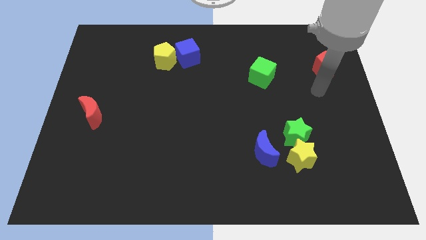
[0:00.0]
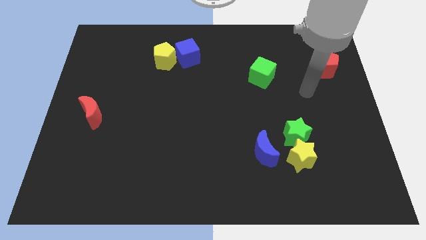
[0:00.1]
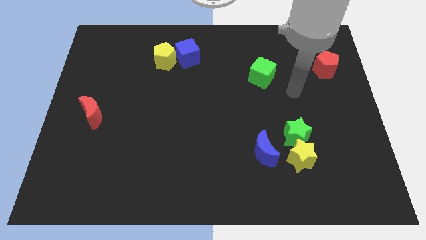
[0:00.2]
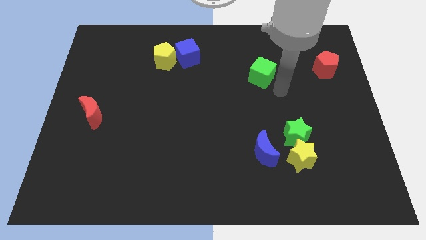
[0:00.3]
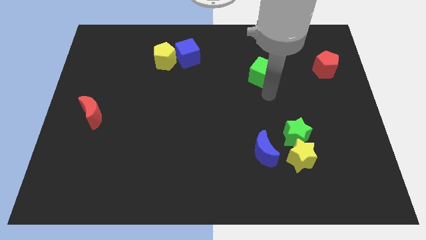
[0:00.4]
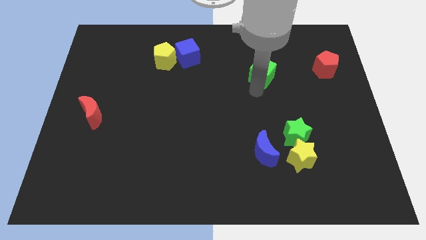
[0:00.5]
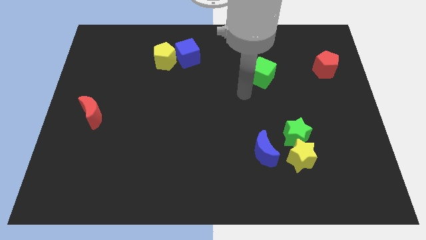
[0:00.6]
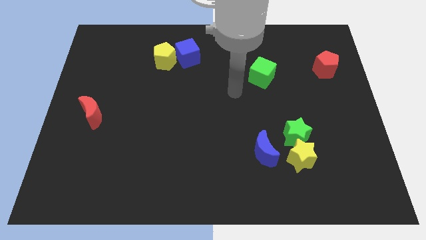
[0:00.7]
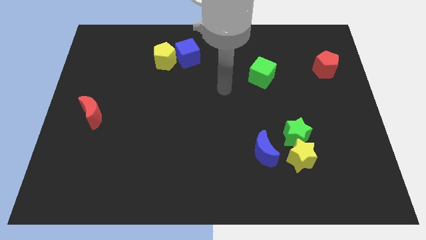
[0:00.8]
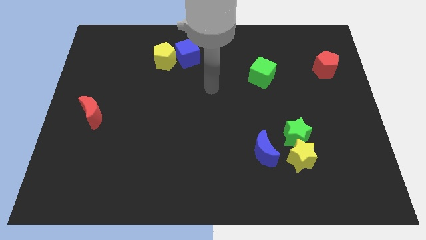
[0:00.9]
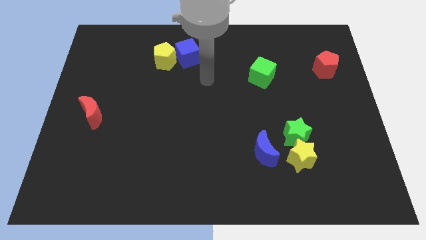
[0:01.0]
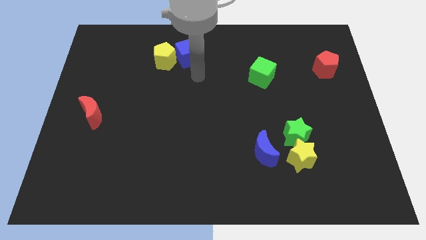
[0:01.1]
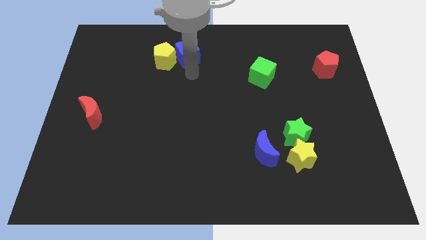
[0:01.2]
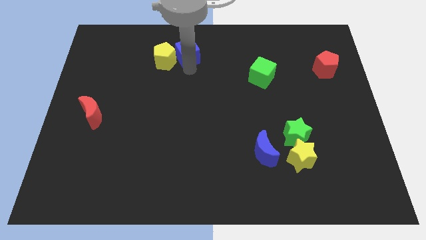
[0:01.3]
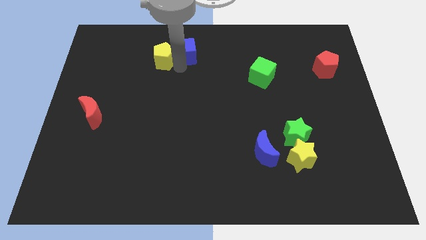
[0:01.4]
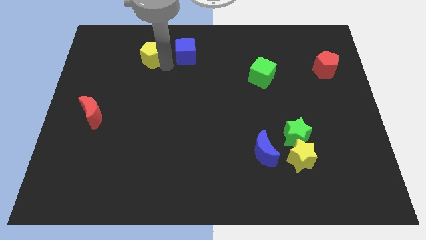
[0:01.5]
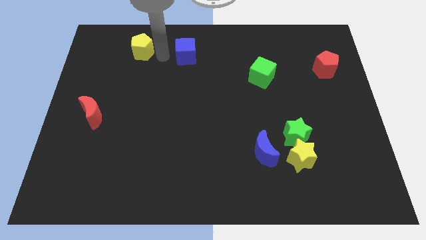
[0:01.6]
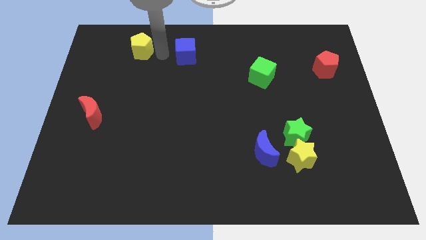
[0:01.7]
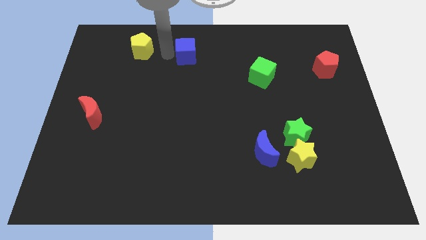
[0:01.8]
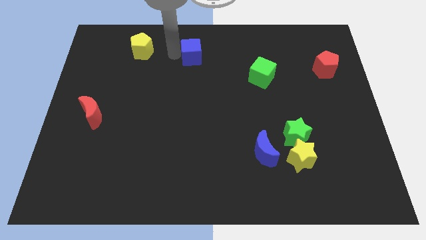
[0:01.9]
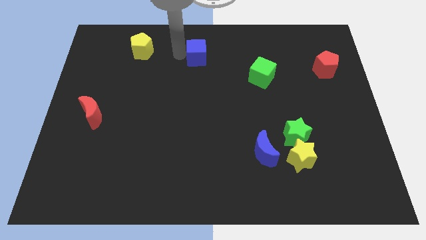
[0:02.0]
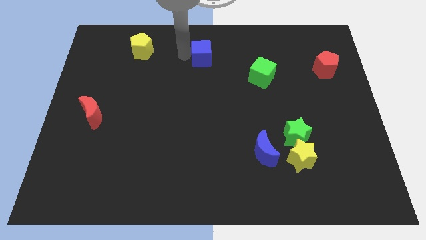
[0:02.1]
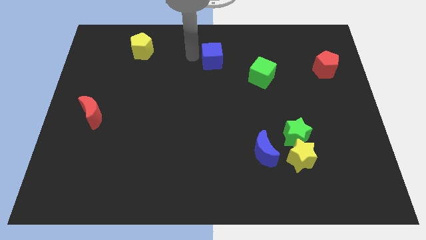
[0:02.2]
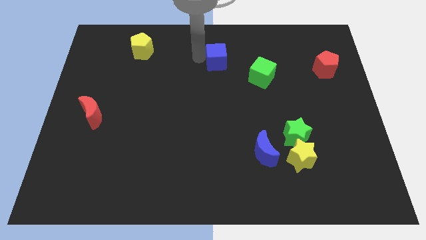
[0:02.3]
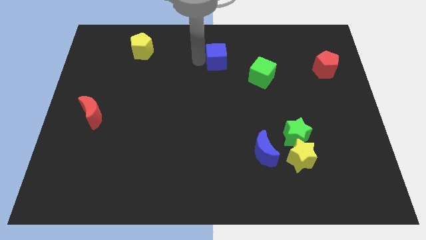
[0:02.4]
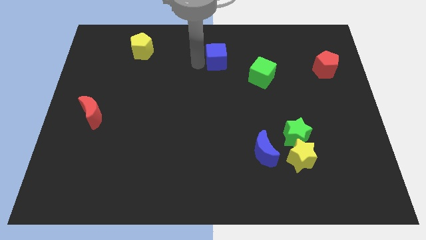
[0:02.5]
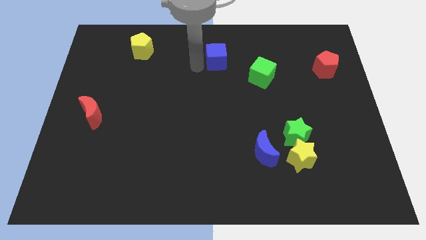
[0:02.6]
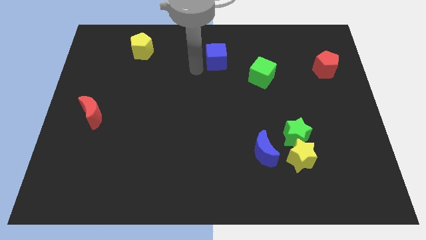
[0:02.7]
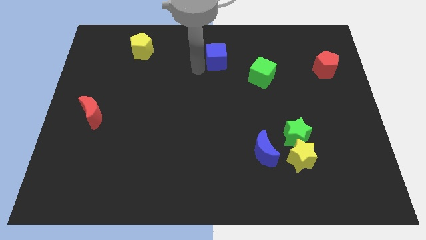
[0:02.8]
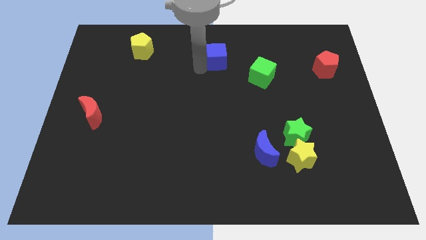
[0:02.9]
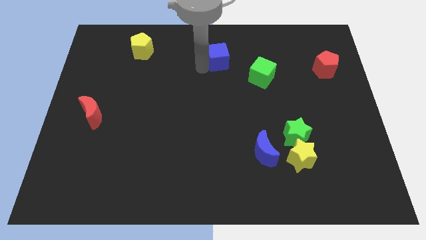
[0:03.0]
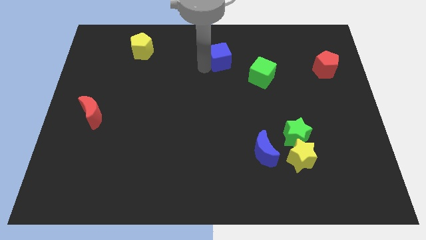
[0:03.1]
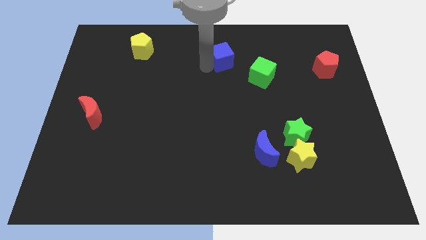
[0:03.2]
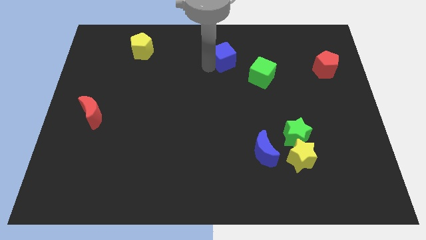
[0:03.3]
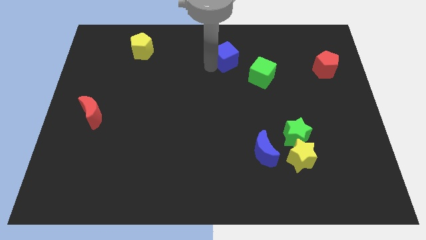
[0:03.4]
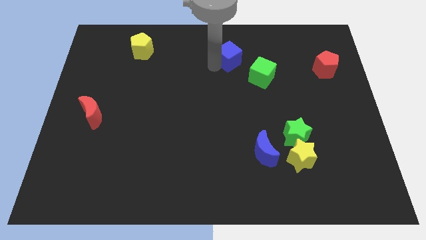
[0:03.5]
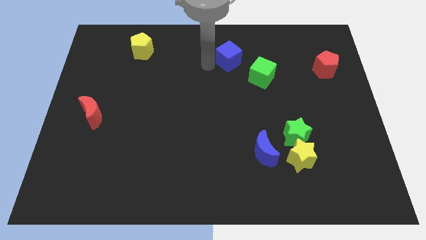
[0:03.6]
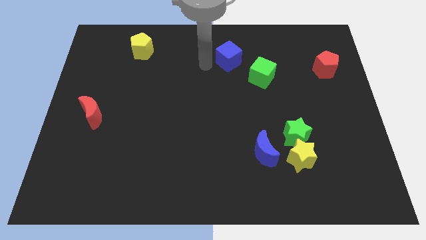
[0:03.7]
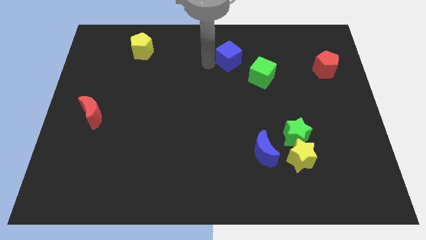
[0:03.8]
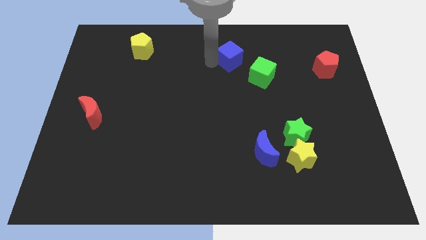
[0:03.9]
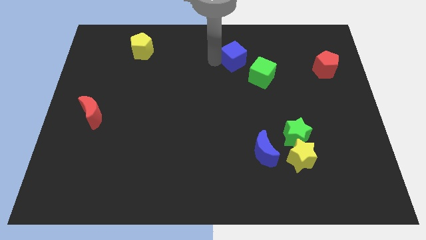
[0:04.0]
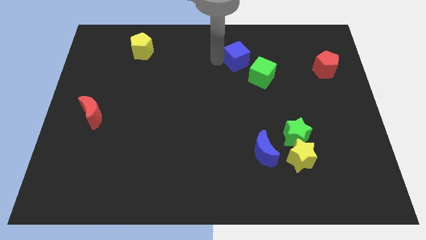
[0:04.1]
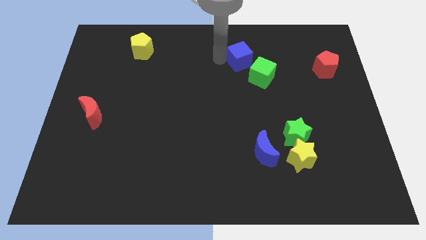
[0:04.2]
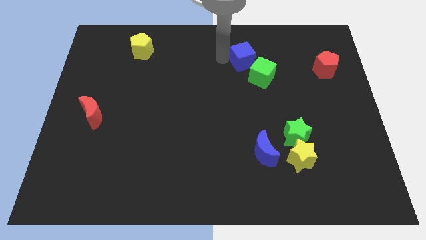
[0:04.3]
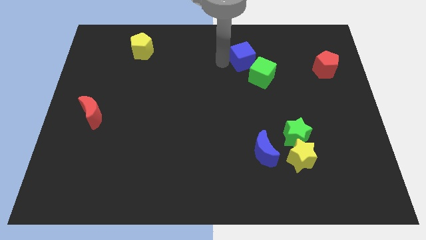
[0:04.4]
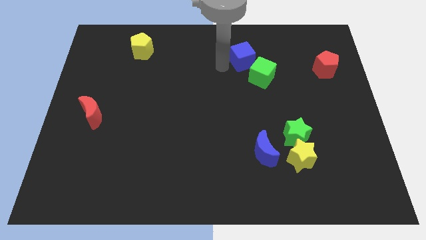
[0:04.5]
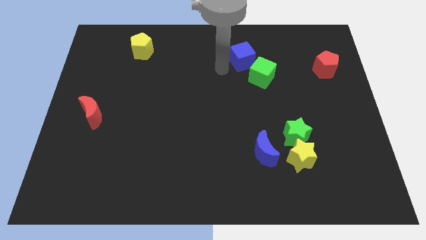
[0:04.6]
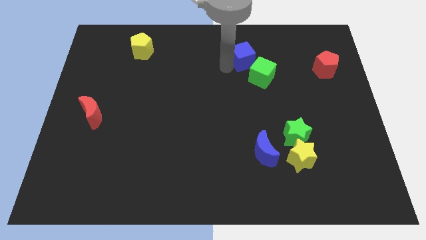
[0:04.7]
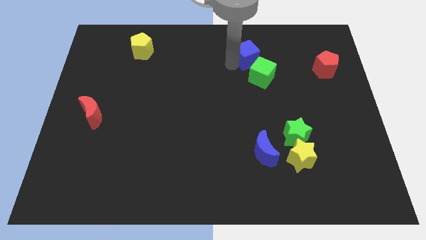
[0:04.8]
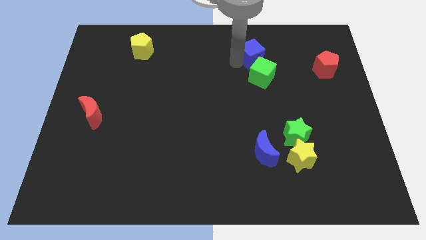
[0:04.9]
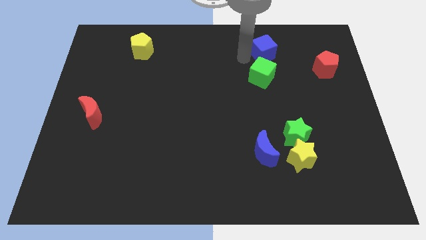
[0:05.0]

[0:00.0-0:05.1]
push the blue cube right

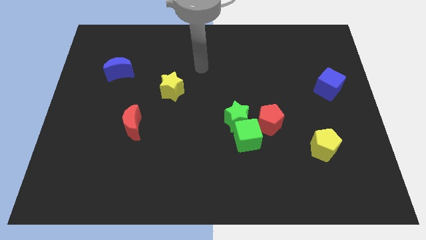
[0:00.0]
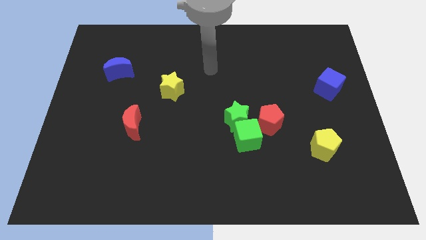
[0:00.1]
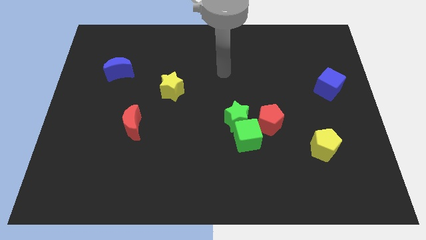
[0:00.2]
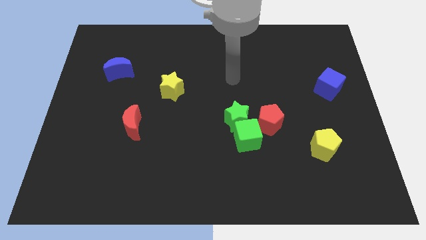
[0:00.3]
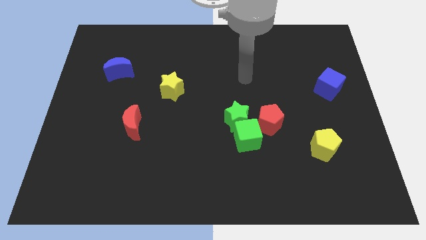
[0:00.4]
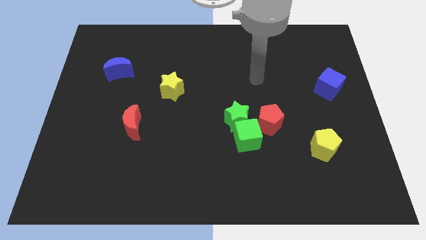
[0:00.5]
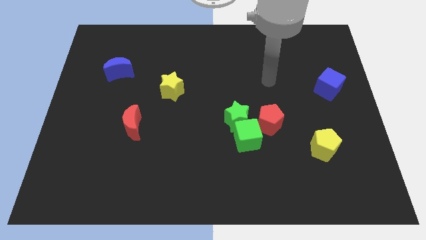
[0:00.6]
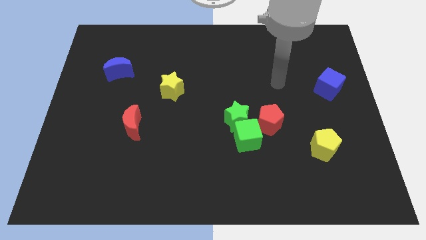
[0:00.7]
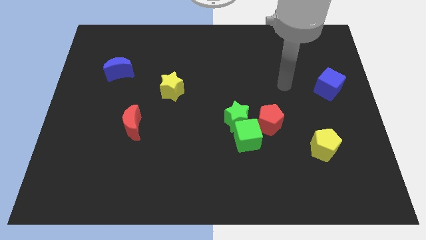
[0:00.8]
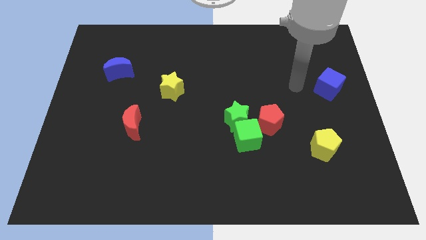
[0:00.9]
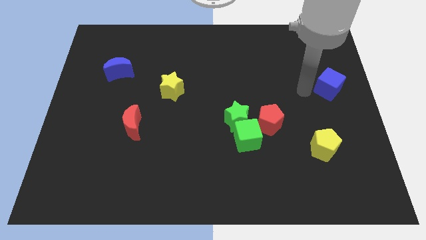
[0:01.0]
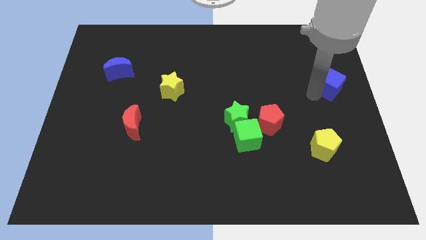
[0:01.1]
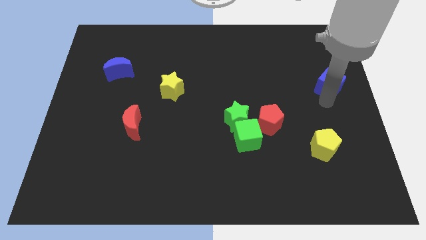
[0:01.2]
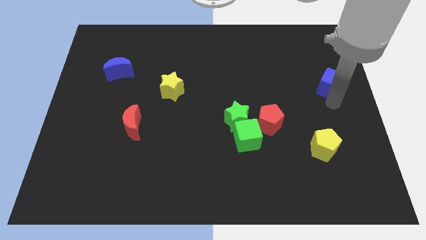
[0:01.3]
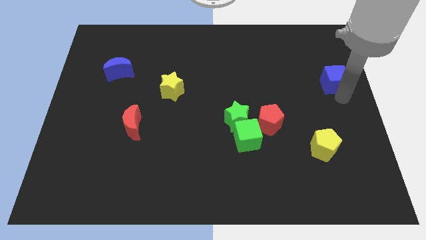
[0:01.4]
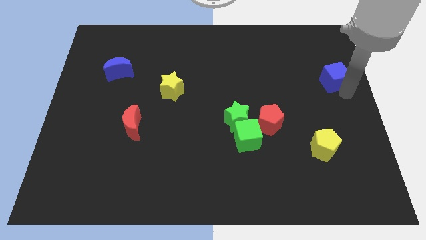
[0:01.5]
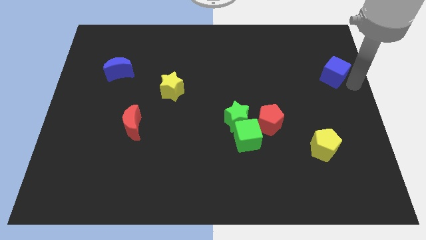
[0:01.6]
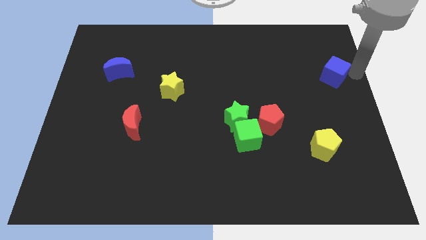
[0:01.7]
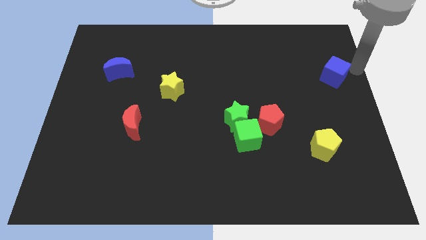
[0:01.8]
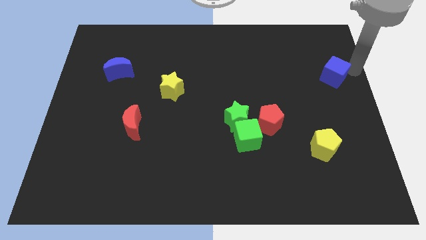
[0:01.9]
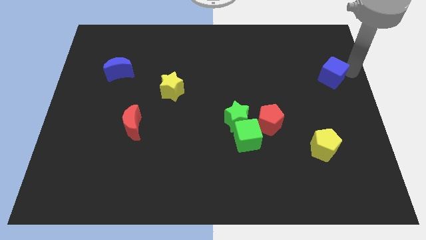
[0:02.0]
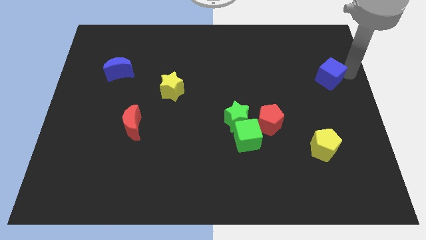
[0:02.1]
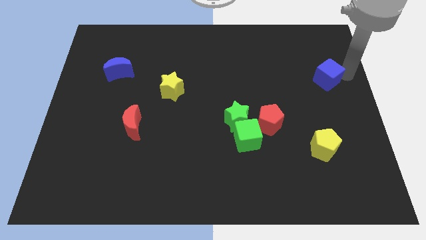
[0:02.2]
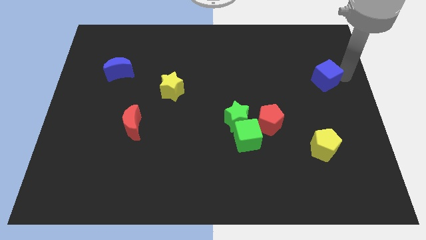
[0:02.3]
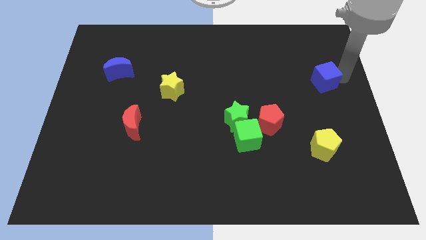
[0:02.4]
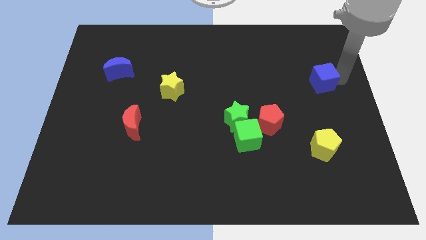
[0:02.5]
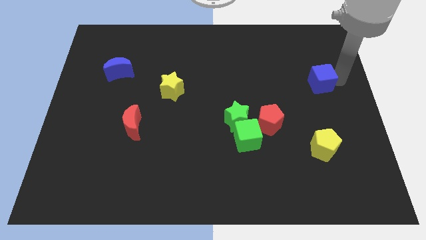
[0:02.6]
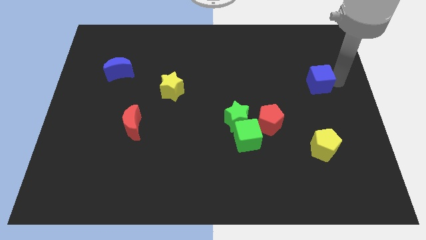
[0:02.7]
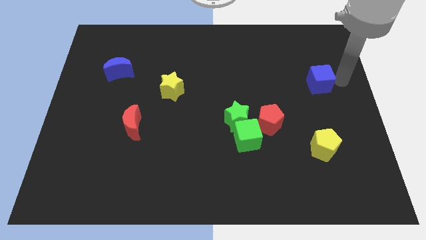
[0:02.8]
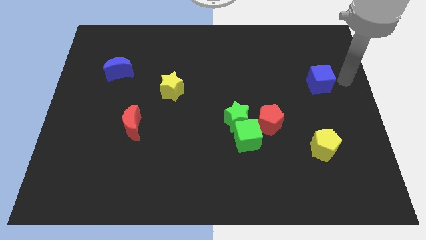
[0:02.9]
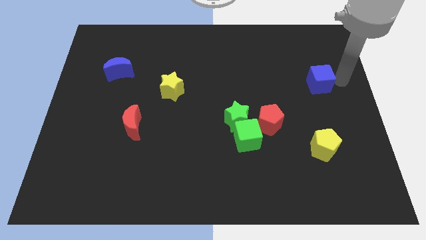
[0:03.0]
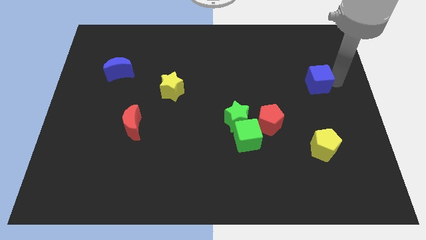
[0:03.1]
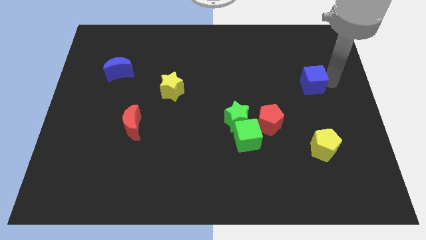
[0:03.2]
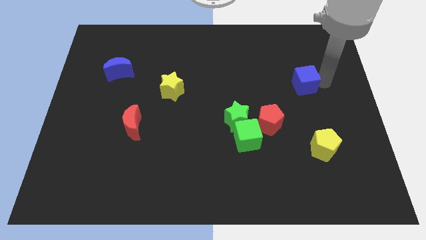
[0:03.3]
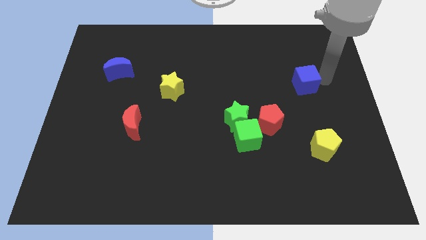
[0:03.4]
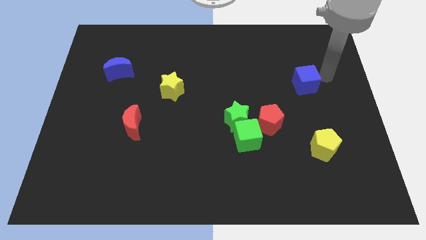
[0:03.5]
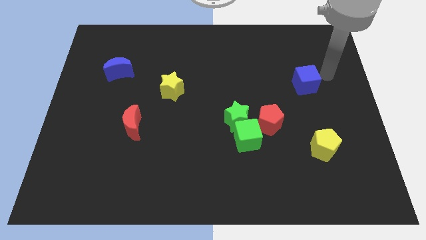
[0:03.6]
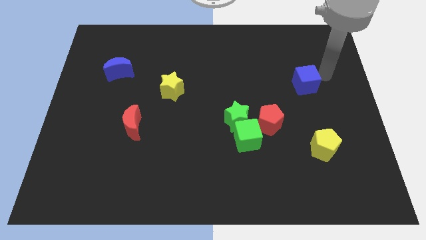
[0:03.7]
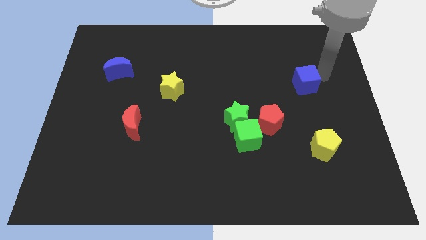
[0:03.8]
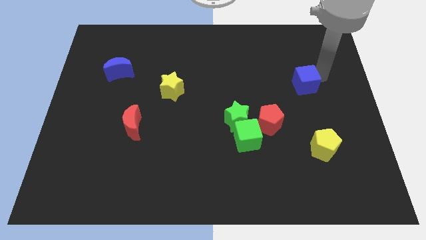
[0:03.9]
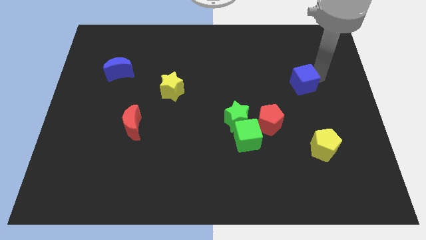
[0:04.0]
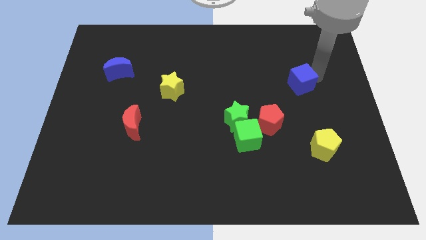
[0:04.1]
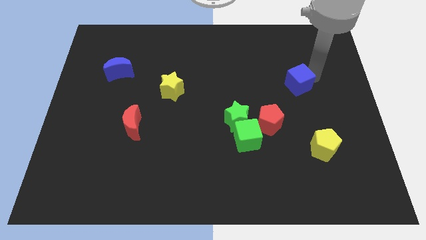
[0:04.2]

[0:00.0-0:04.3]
push the blue cube to the left slightly
